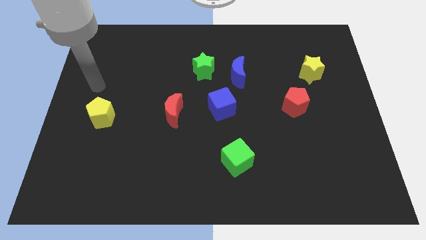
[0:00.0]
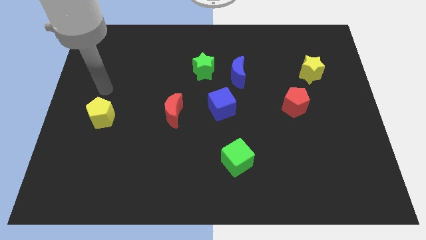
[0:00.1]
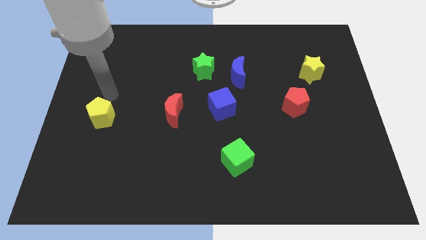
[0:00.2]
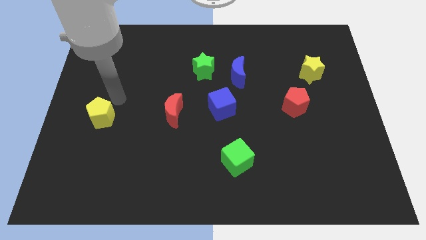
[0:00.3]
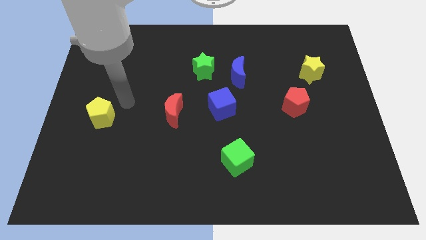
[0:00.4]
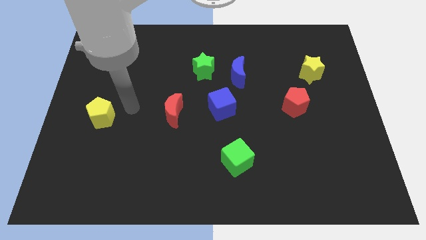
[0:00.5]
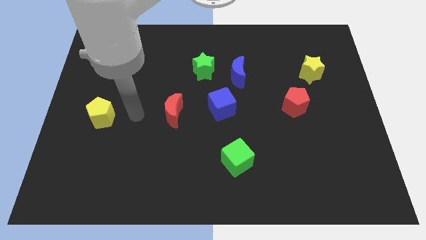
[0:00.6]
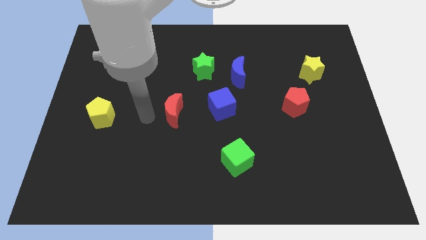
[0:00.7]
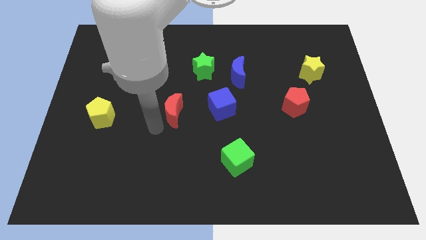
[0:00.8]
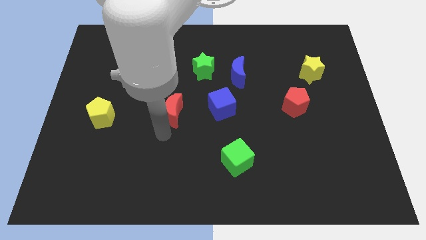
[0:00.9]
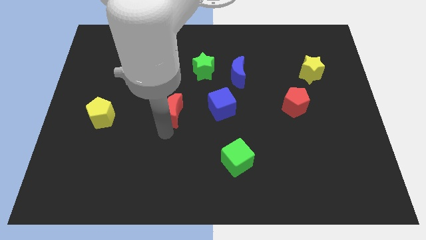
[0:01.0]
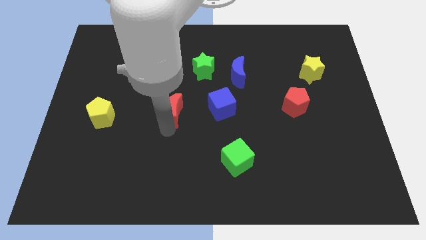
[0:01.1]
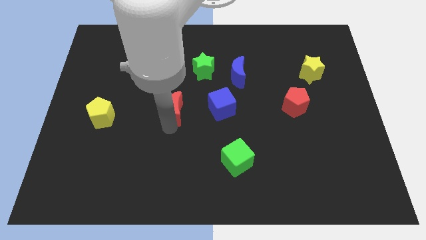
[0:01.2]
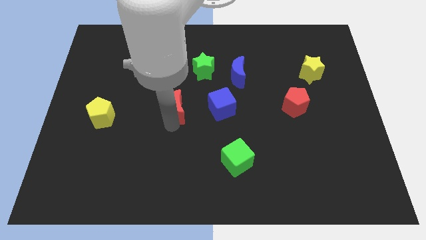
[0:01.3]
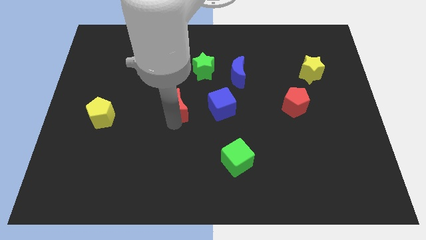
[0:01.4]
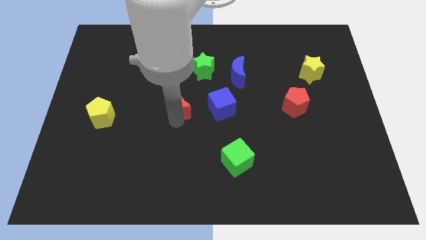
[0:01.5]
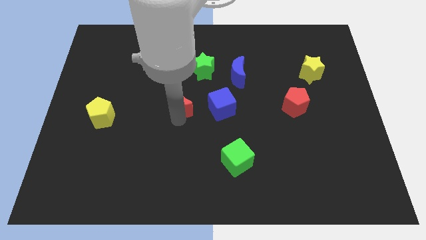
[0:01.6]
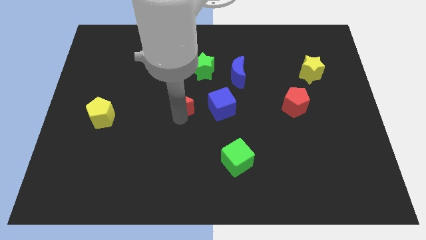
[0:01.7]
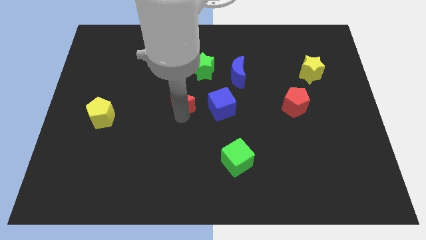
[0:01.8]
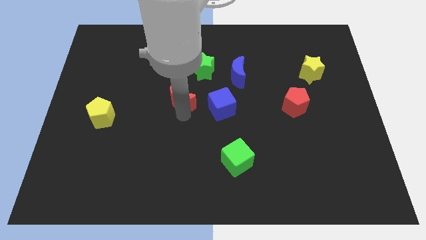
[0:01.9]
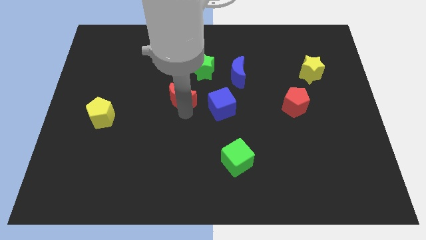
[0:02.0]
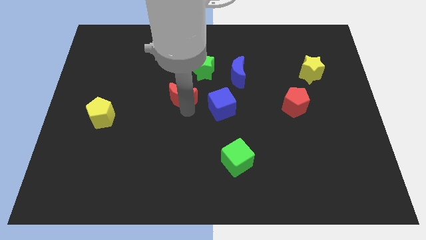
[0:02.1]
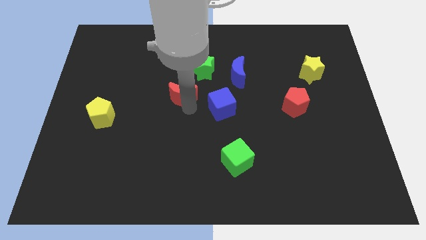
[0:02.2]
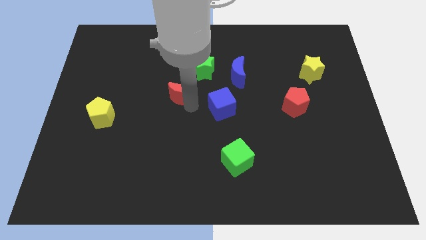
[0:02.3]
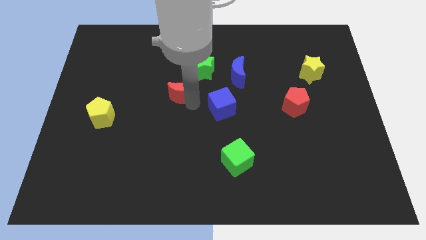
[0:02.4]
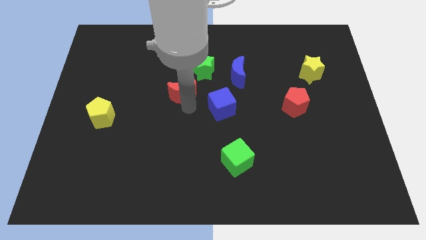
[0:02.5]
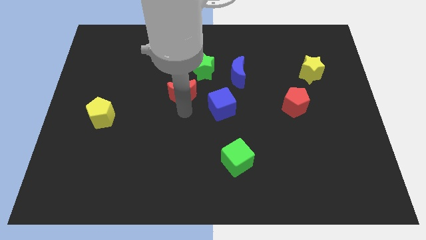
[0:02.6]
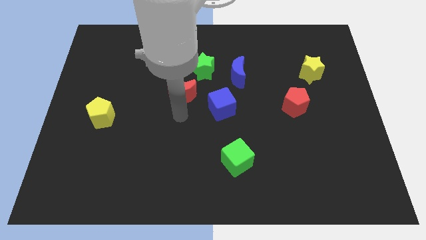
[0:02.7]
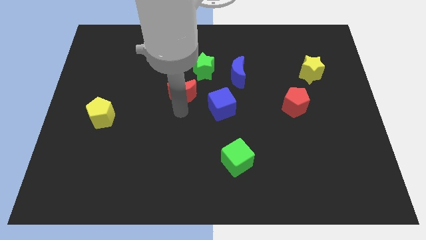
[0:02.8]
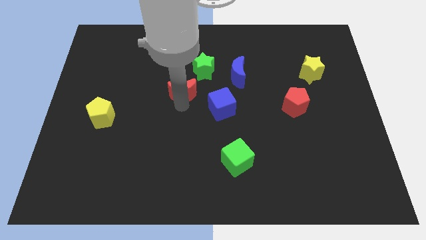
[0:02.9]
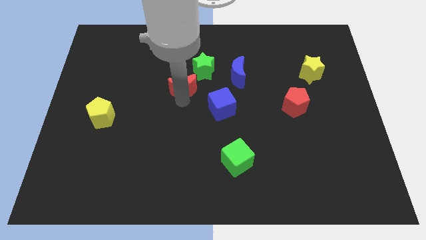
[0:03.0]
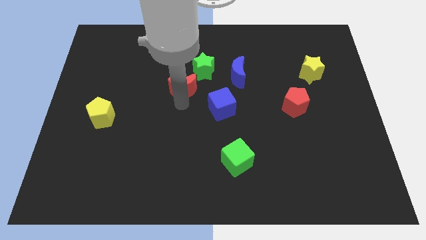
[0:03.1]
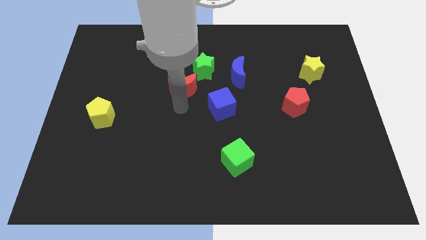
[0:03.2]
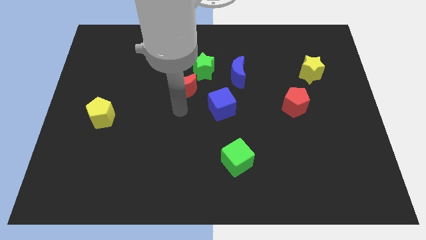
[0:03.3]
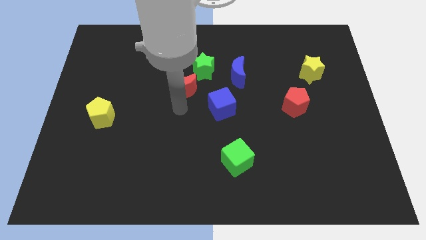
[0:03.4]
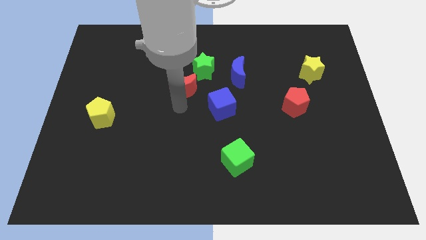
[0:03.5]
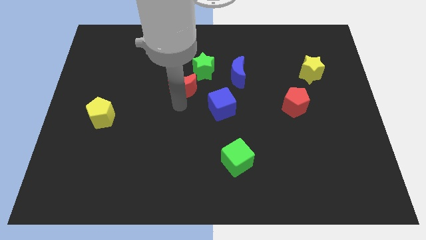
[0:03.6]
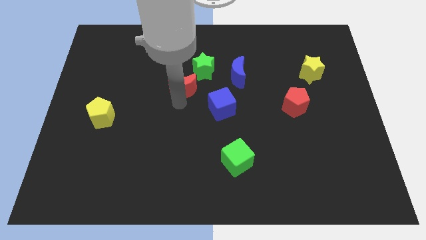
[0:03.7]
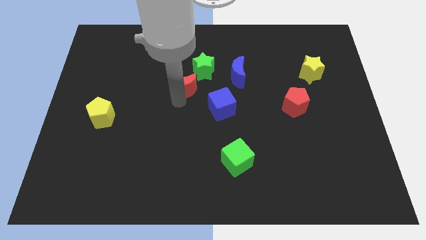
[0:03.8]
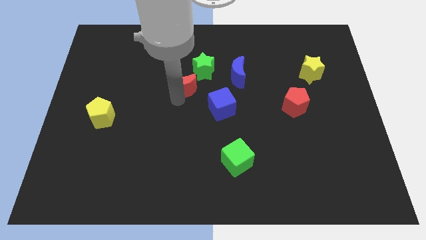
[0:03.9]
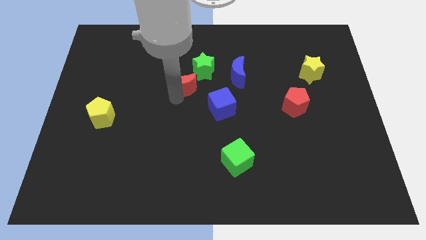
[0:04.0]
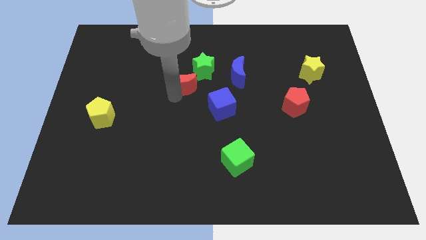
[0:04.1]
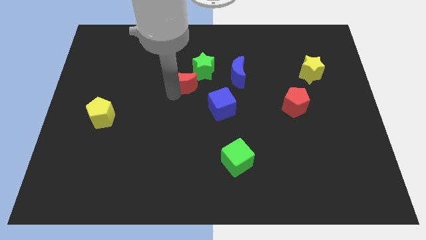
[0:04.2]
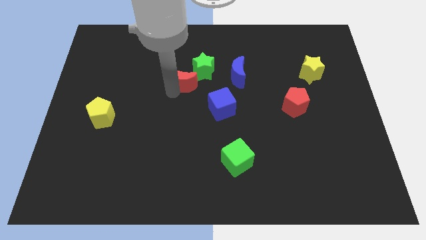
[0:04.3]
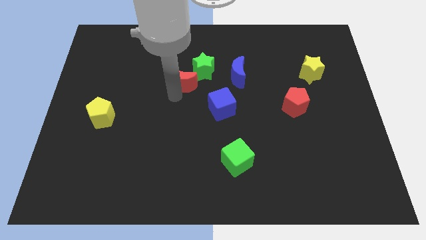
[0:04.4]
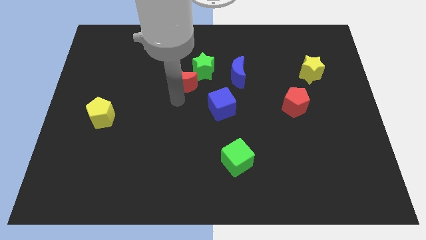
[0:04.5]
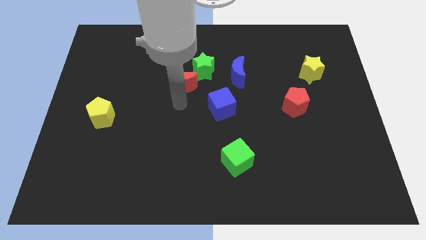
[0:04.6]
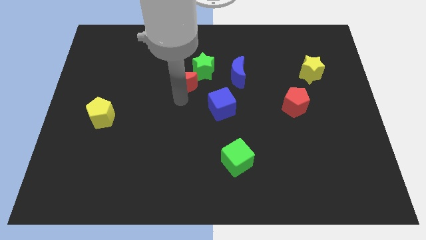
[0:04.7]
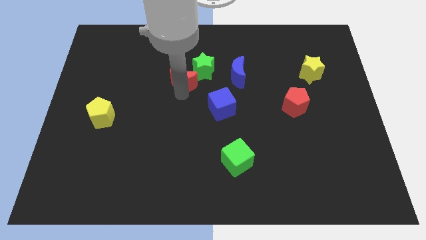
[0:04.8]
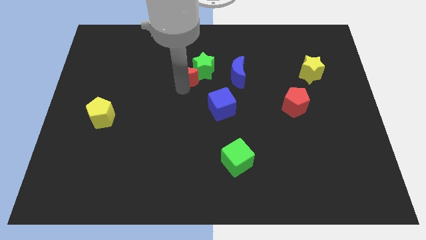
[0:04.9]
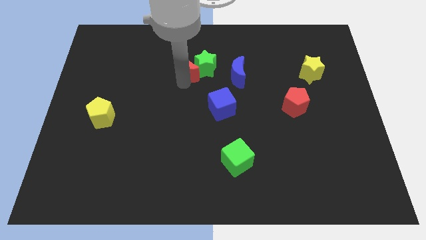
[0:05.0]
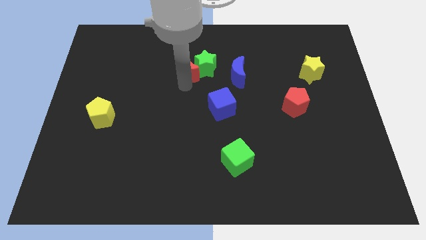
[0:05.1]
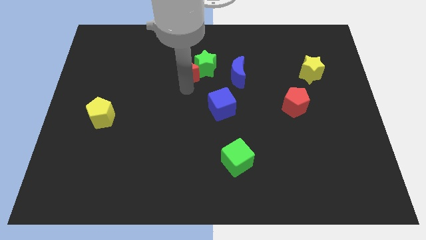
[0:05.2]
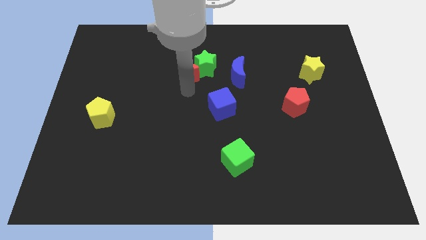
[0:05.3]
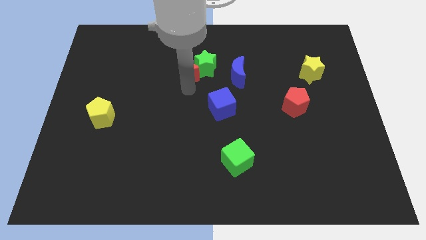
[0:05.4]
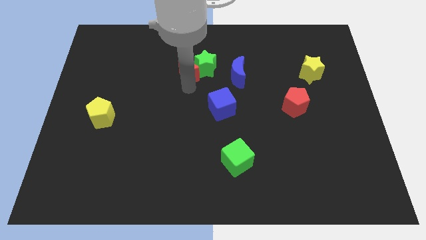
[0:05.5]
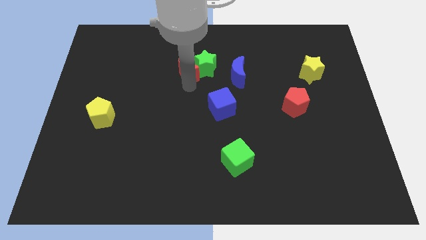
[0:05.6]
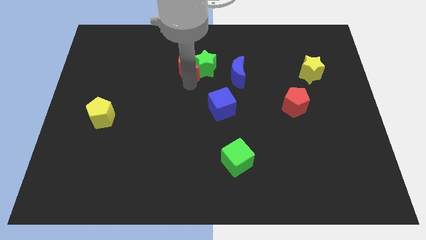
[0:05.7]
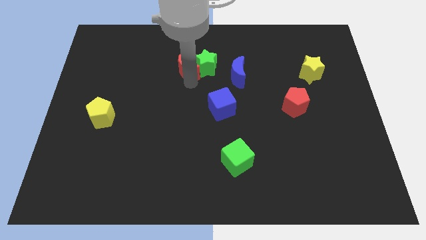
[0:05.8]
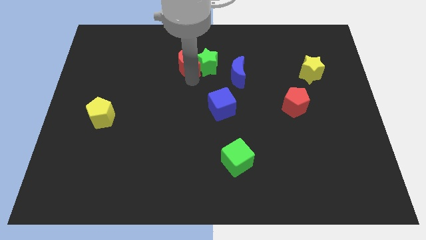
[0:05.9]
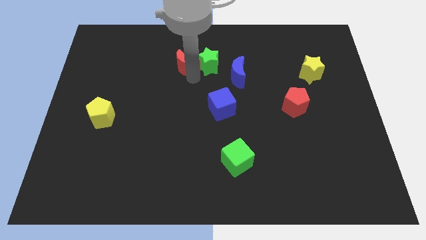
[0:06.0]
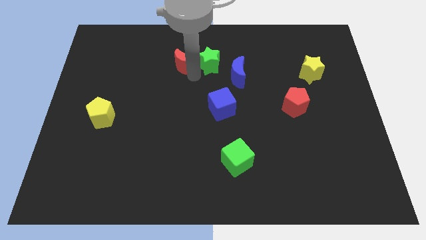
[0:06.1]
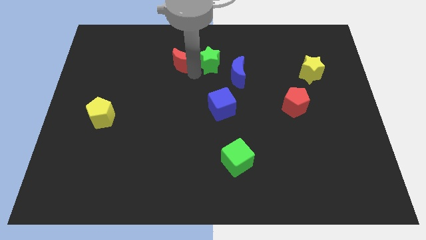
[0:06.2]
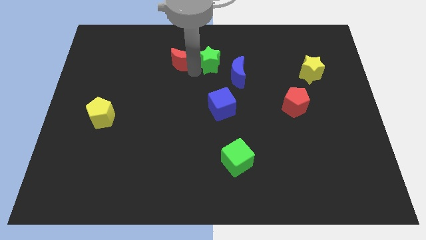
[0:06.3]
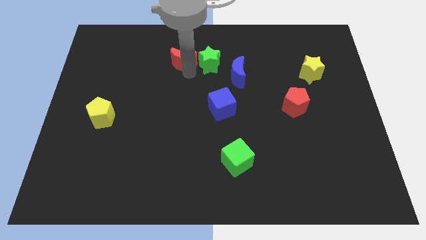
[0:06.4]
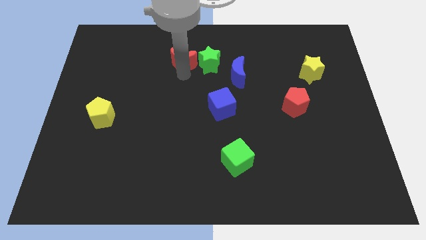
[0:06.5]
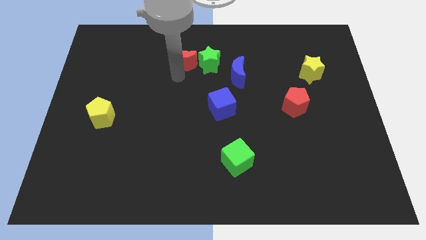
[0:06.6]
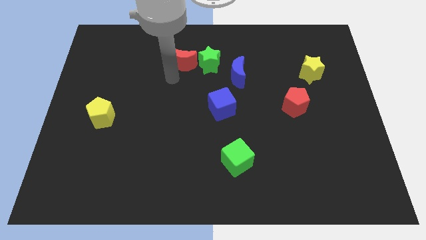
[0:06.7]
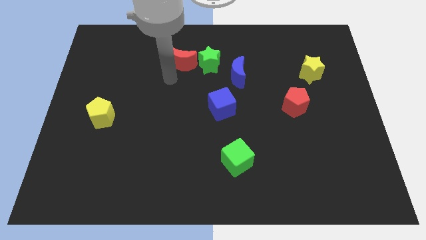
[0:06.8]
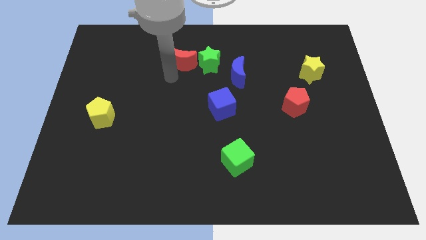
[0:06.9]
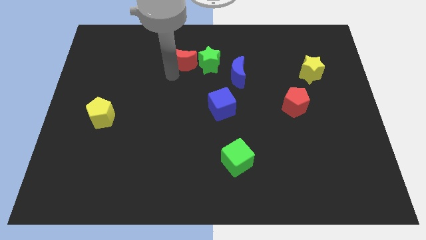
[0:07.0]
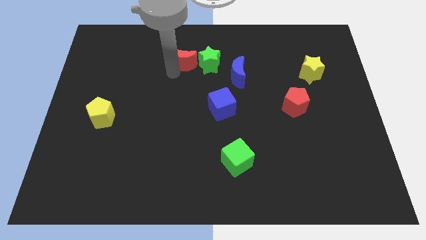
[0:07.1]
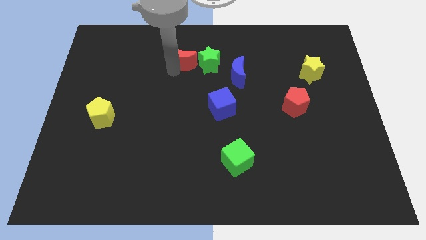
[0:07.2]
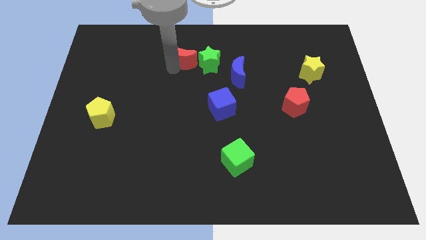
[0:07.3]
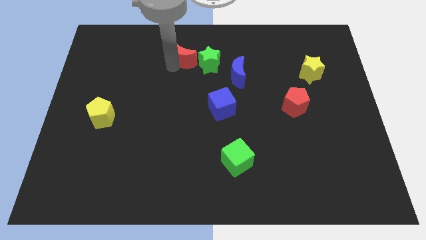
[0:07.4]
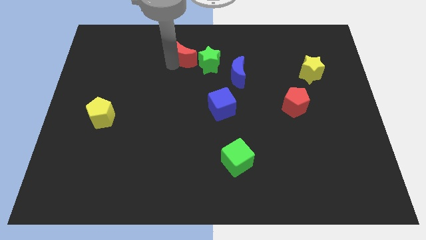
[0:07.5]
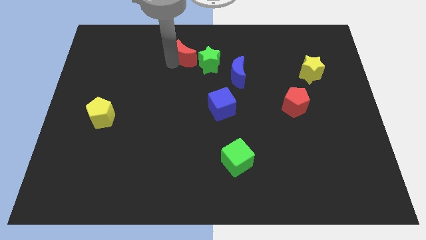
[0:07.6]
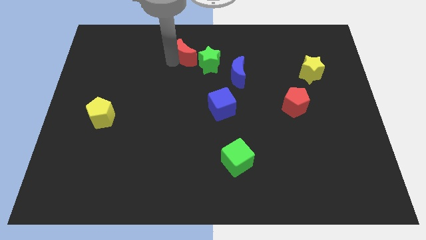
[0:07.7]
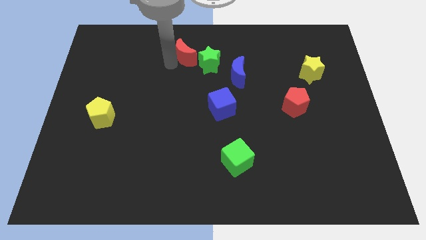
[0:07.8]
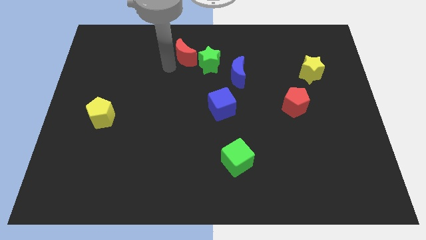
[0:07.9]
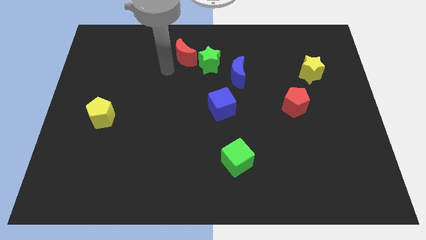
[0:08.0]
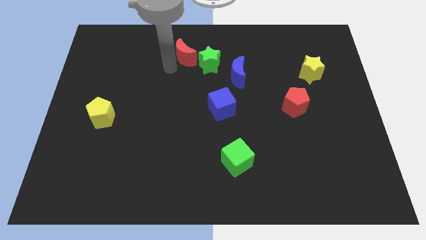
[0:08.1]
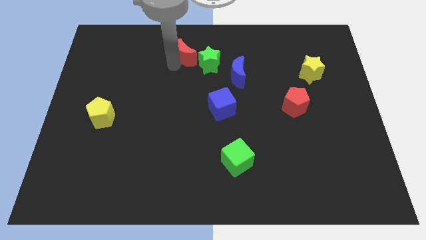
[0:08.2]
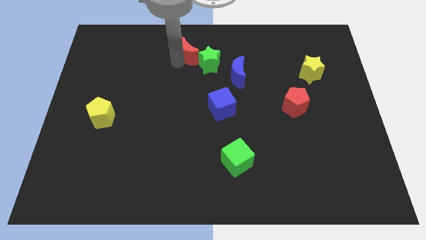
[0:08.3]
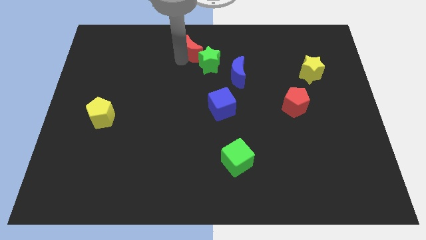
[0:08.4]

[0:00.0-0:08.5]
move the red moon to the top
